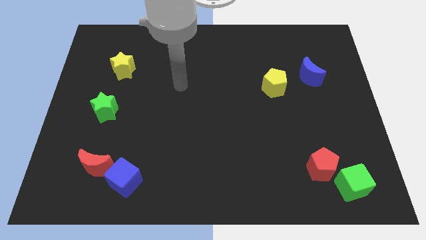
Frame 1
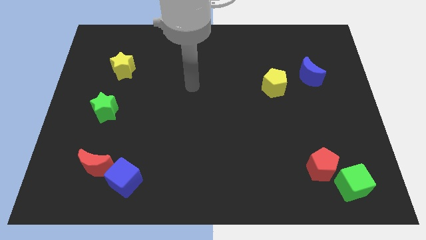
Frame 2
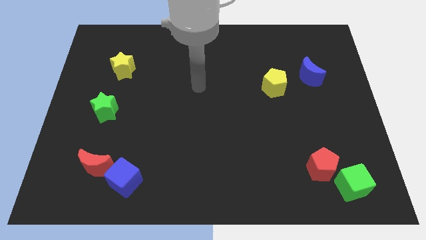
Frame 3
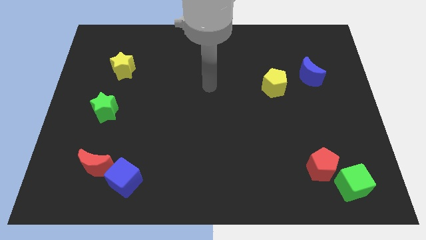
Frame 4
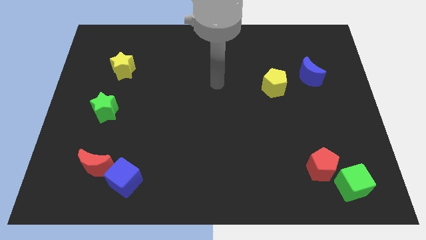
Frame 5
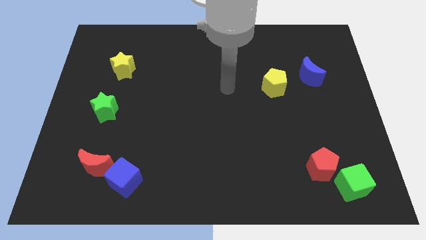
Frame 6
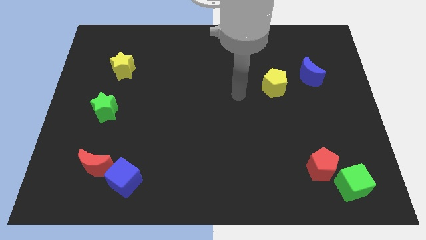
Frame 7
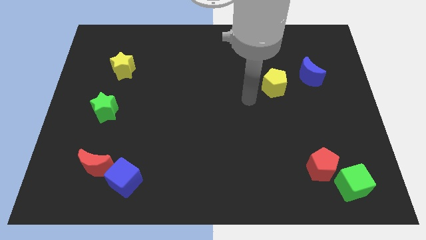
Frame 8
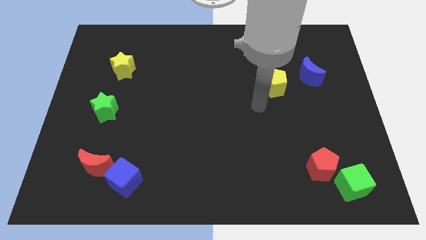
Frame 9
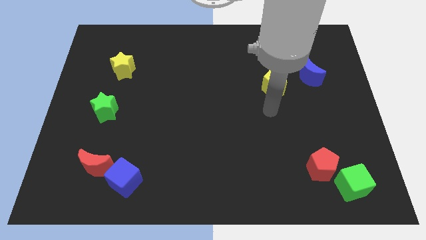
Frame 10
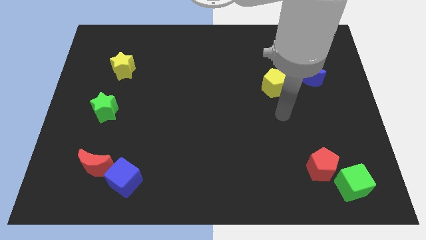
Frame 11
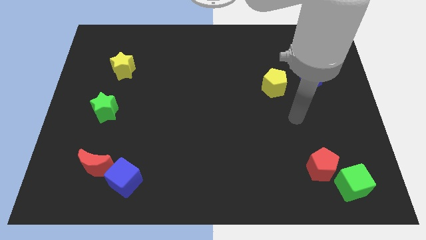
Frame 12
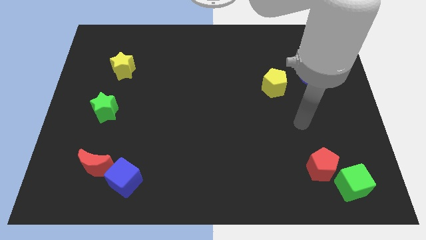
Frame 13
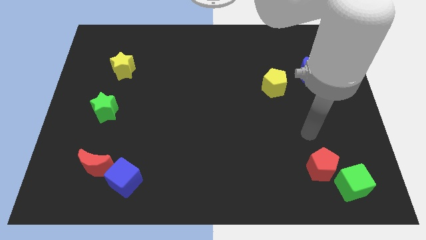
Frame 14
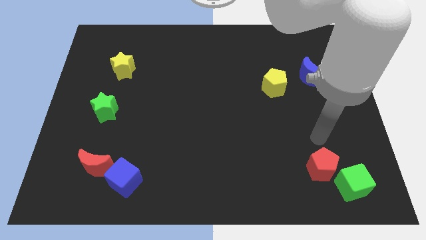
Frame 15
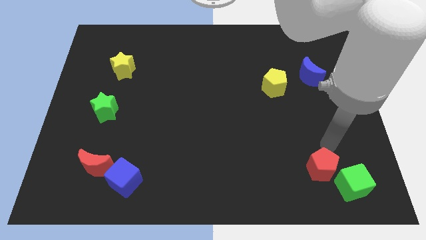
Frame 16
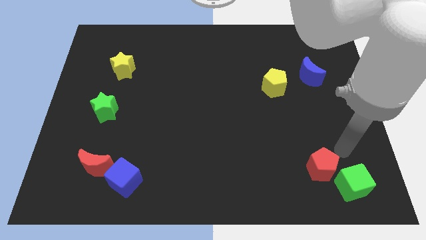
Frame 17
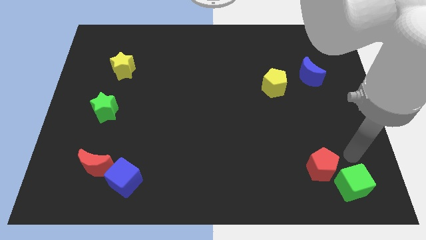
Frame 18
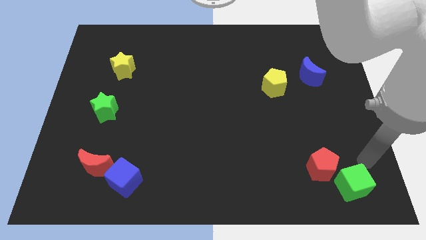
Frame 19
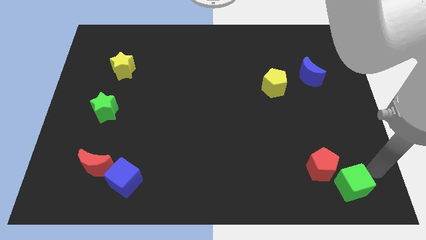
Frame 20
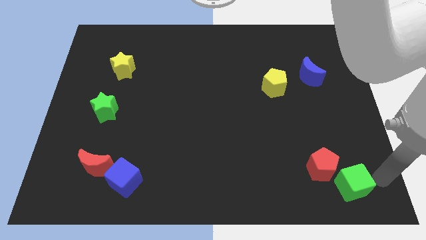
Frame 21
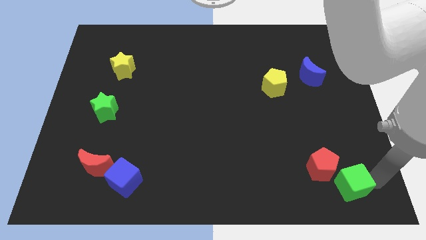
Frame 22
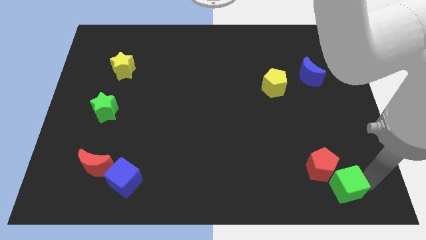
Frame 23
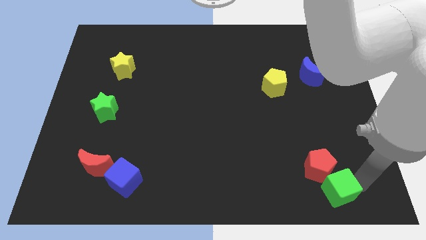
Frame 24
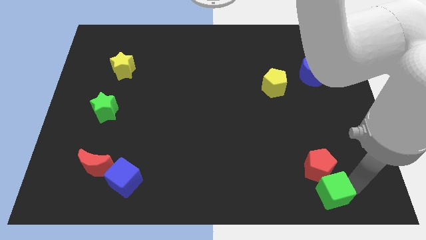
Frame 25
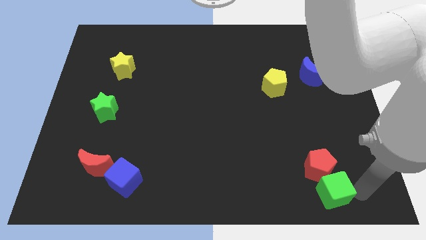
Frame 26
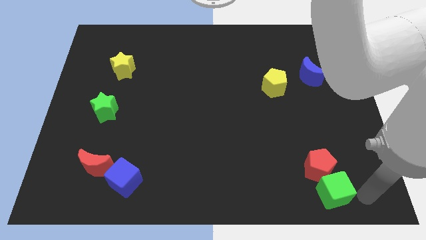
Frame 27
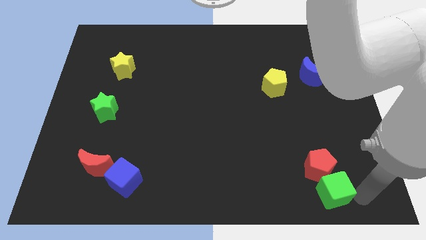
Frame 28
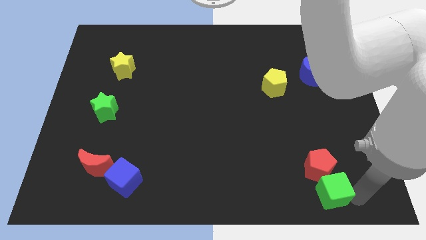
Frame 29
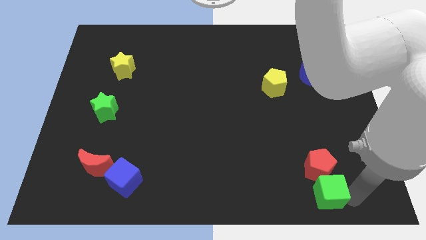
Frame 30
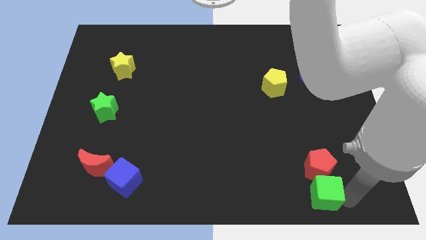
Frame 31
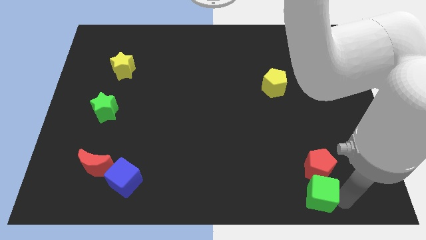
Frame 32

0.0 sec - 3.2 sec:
slightly slide the green cube to the left

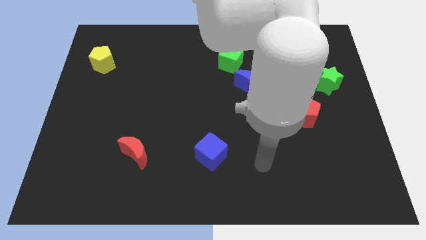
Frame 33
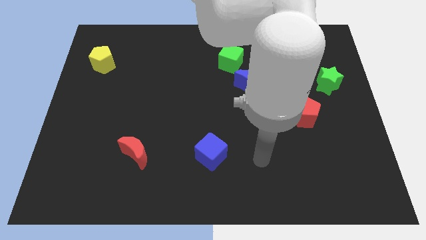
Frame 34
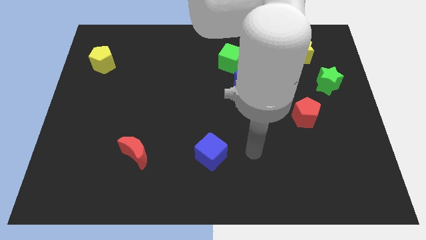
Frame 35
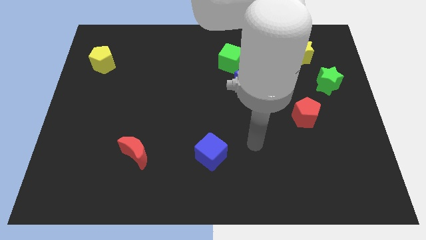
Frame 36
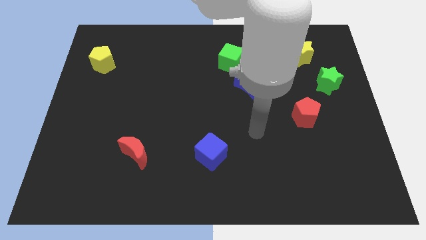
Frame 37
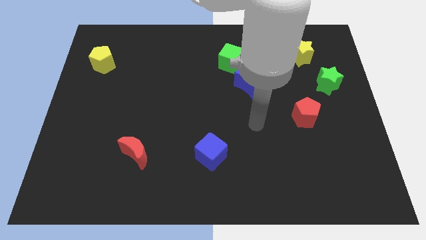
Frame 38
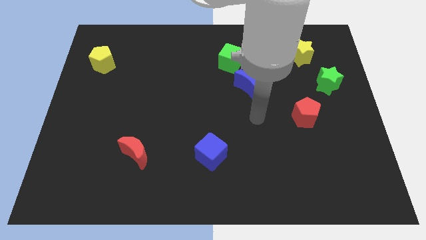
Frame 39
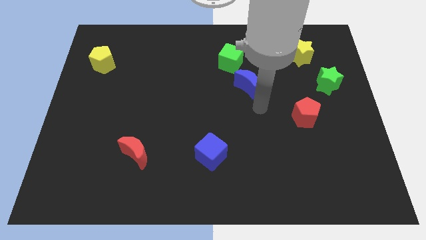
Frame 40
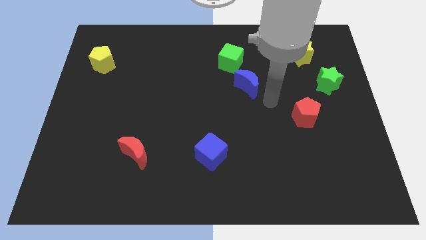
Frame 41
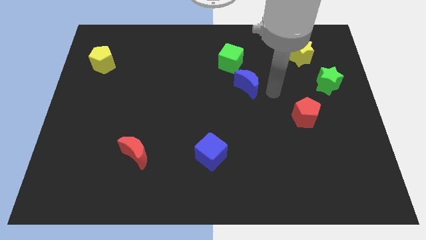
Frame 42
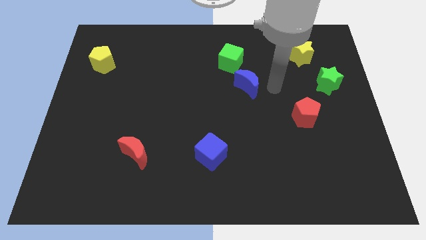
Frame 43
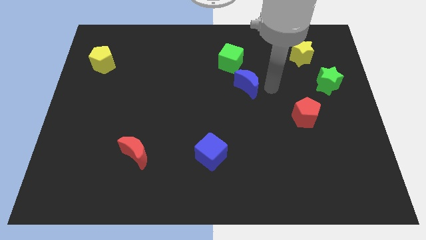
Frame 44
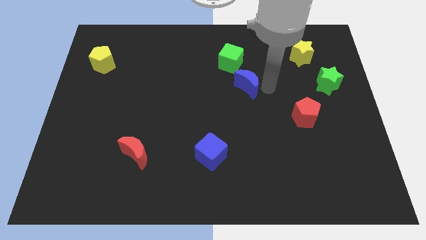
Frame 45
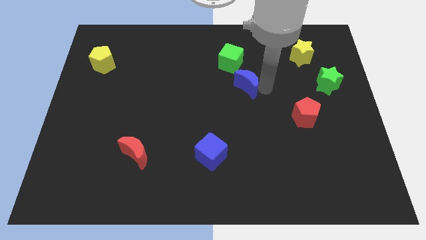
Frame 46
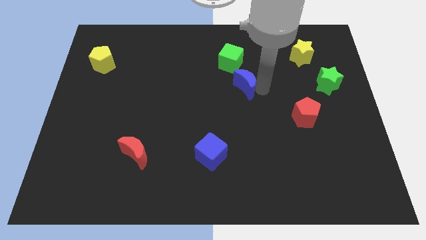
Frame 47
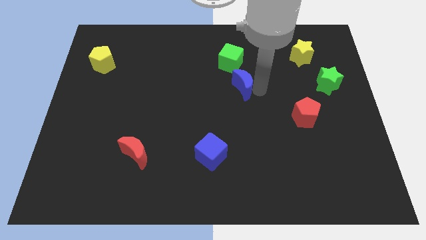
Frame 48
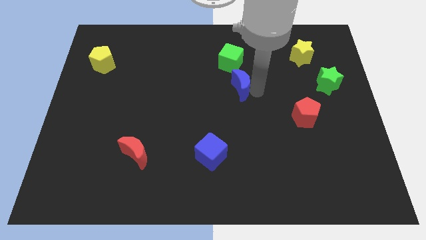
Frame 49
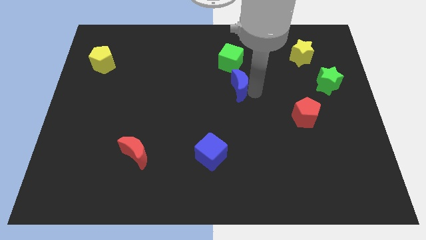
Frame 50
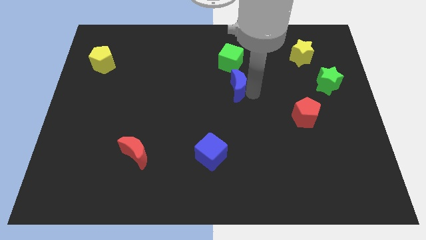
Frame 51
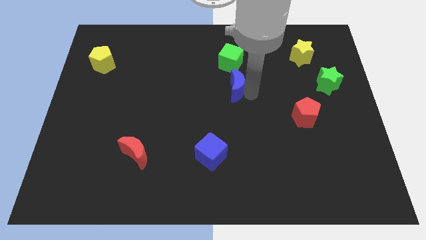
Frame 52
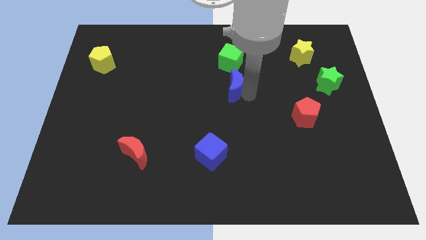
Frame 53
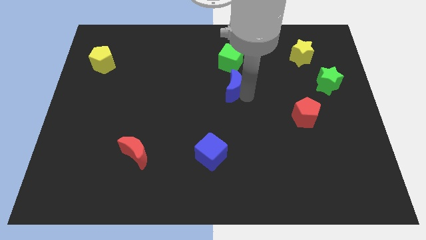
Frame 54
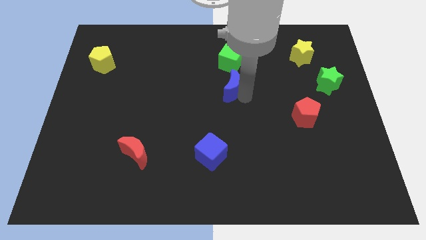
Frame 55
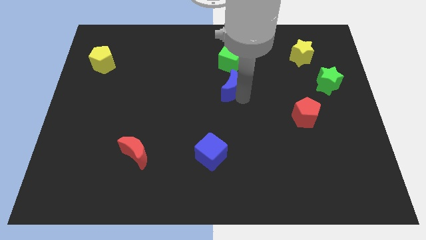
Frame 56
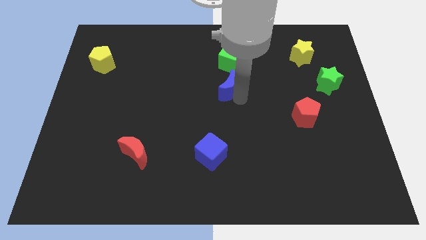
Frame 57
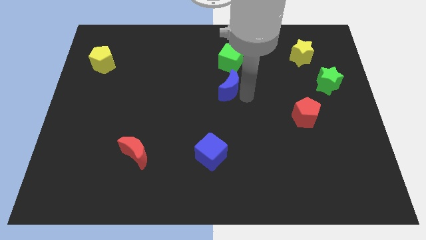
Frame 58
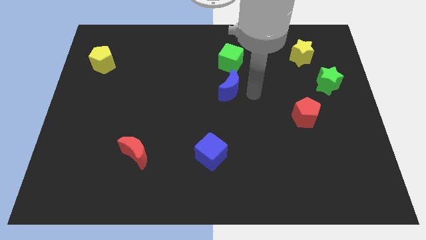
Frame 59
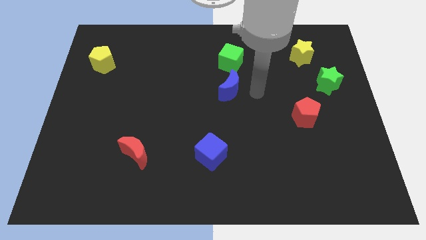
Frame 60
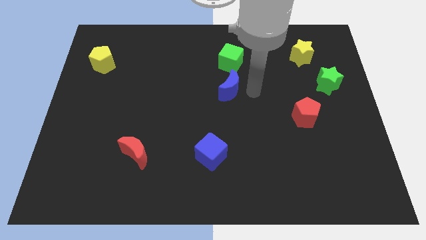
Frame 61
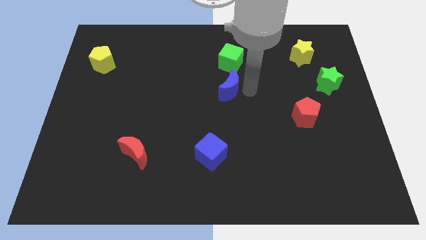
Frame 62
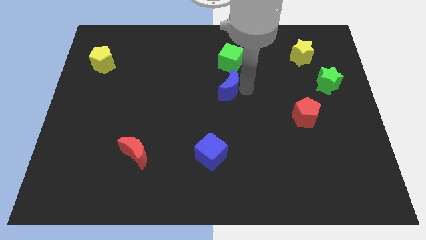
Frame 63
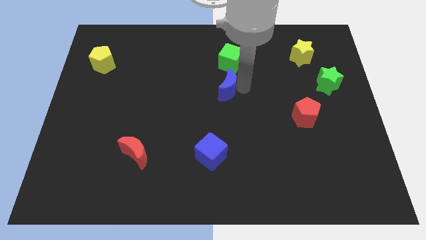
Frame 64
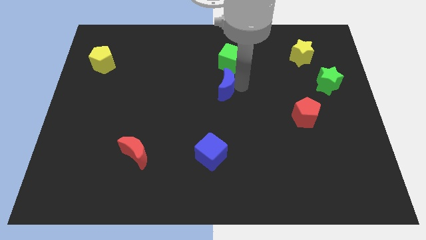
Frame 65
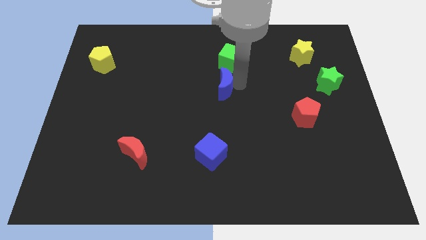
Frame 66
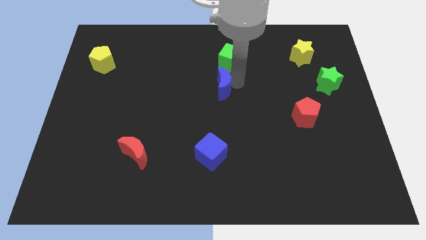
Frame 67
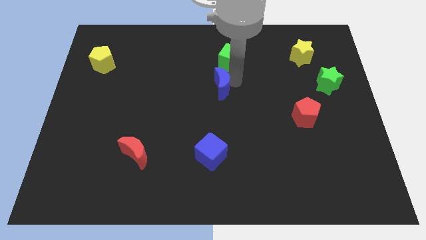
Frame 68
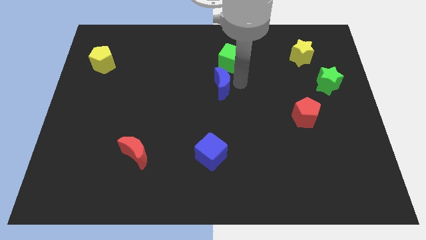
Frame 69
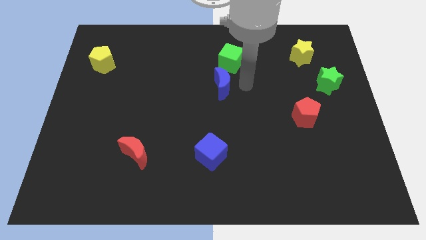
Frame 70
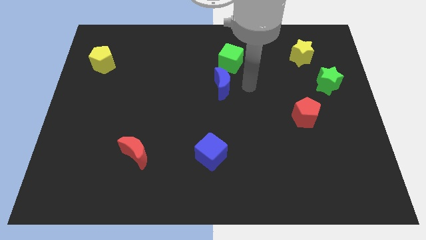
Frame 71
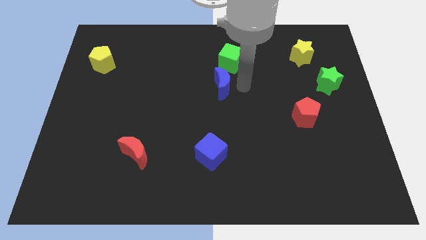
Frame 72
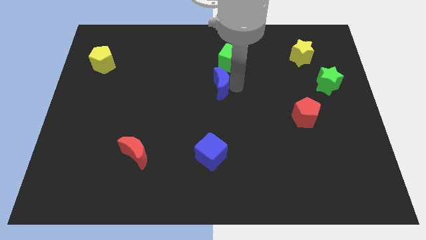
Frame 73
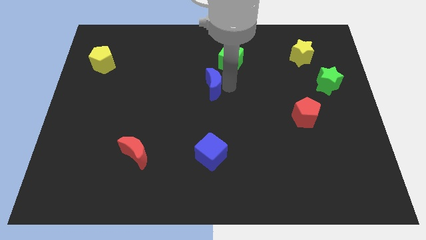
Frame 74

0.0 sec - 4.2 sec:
move the blue moon somewhat left

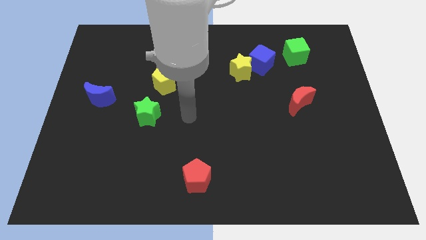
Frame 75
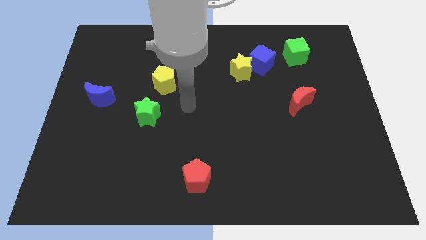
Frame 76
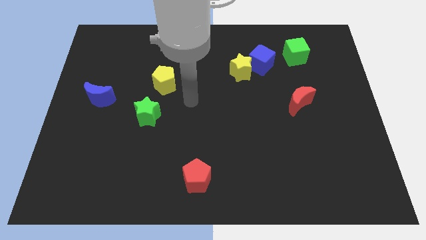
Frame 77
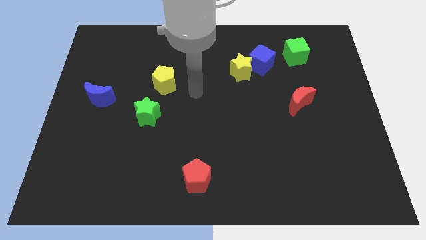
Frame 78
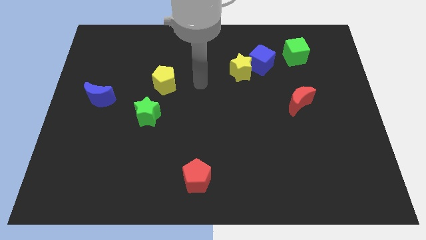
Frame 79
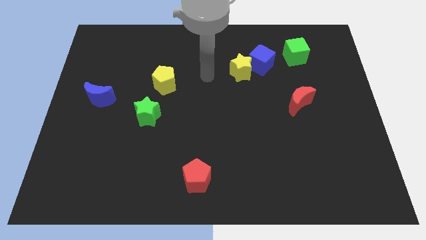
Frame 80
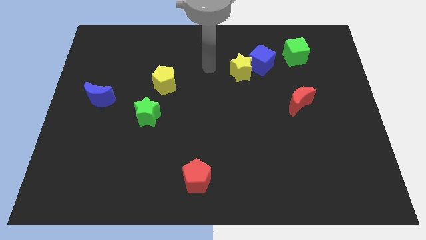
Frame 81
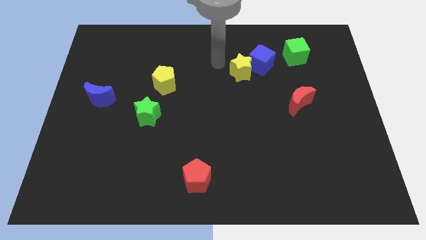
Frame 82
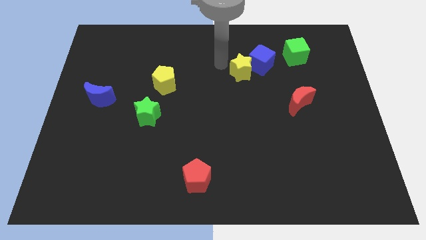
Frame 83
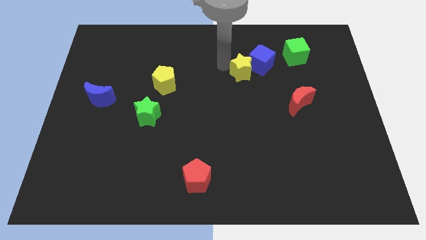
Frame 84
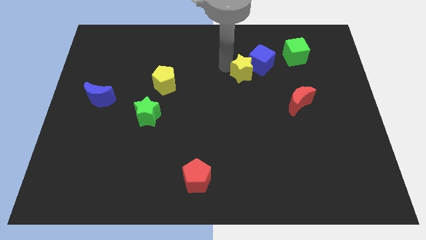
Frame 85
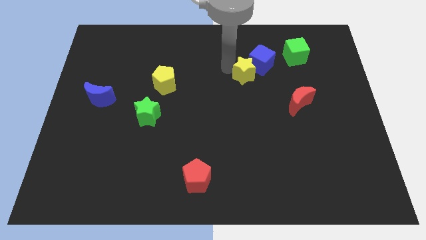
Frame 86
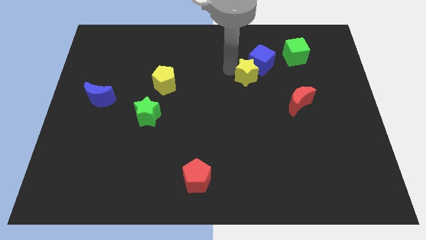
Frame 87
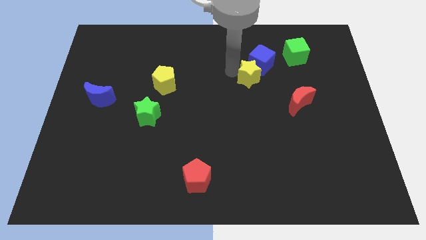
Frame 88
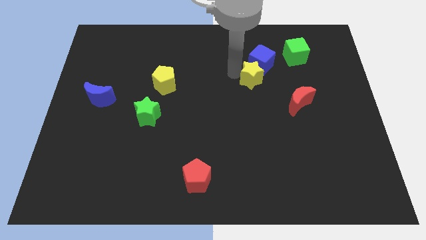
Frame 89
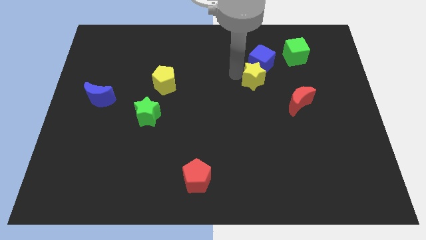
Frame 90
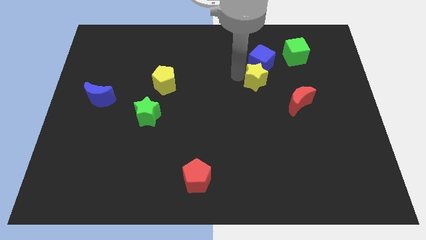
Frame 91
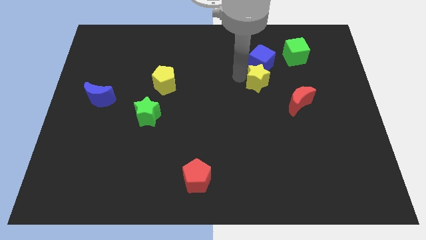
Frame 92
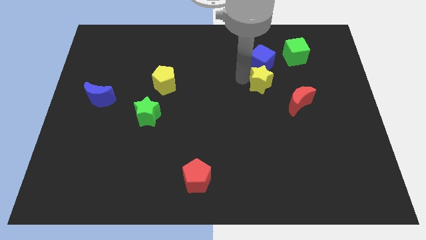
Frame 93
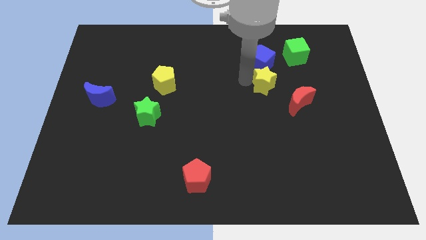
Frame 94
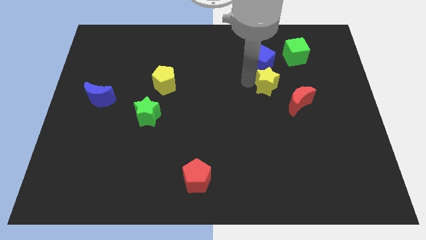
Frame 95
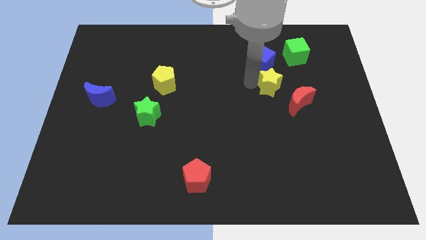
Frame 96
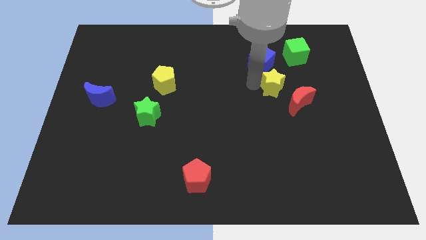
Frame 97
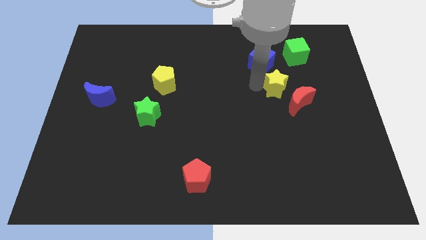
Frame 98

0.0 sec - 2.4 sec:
push the yellow star a bit to the right
